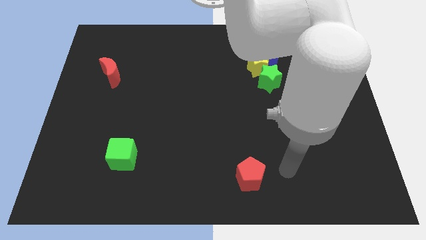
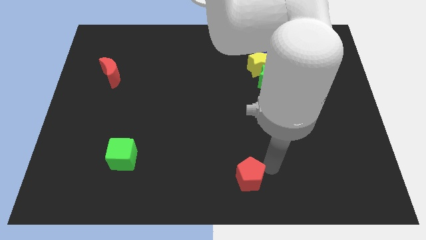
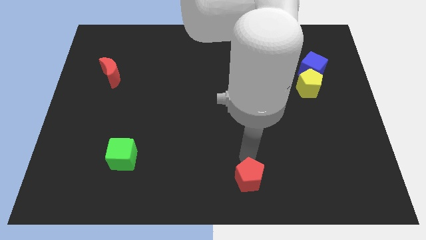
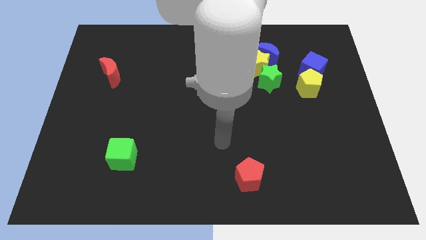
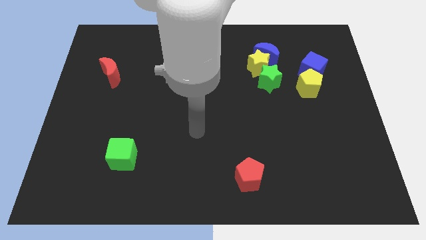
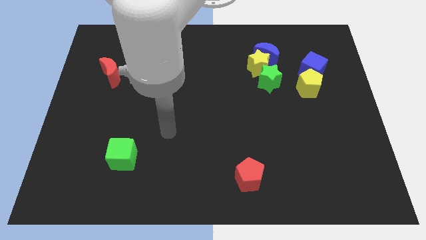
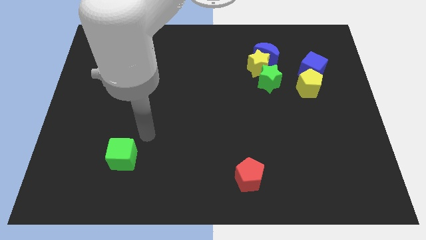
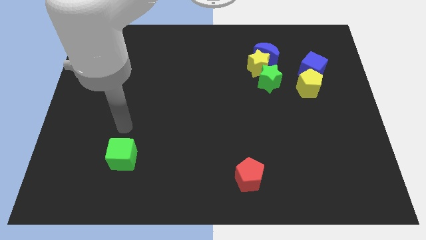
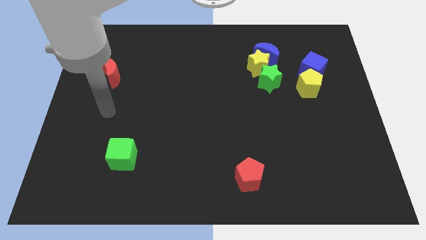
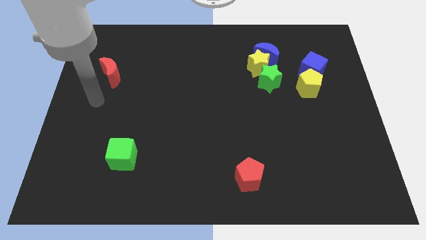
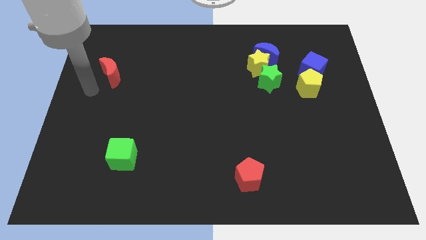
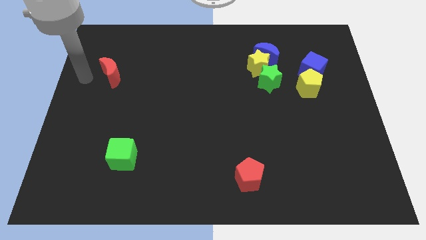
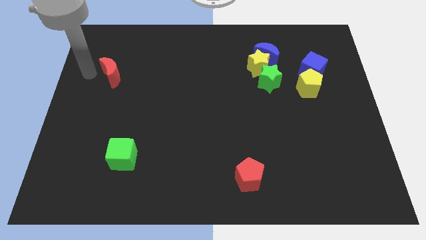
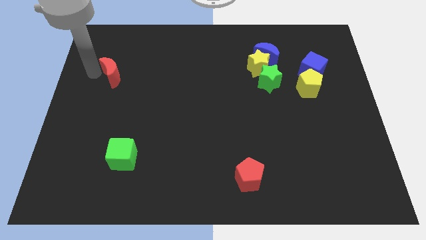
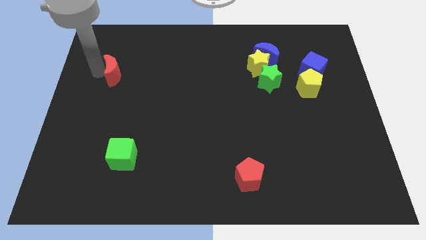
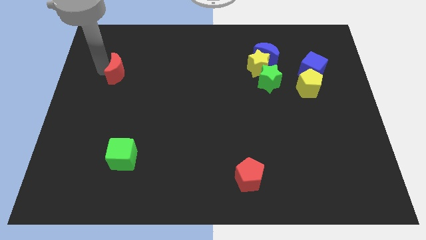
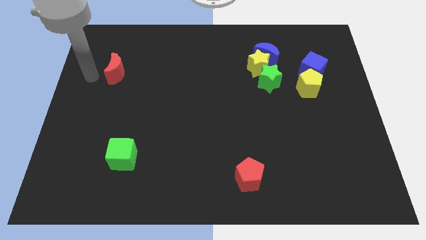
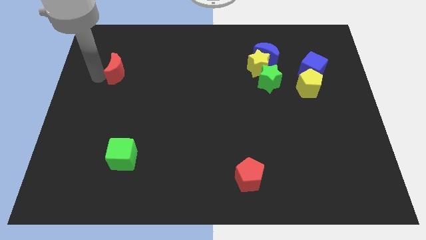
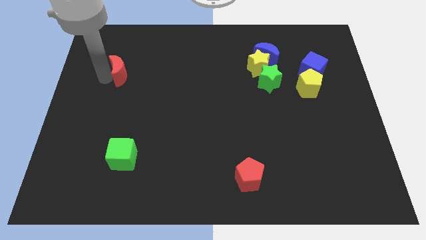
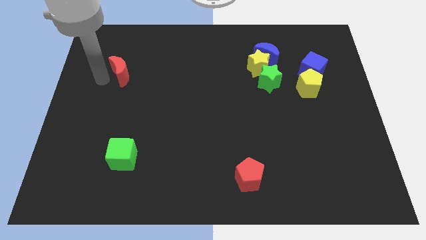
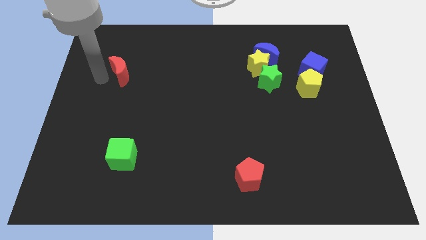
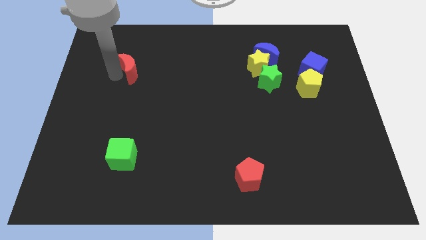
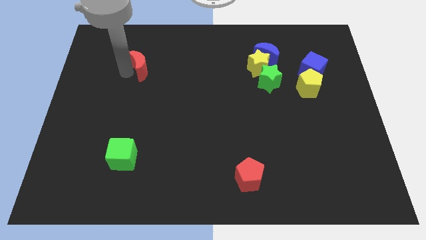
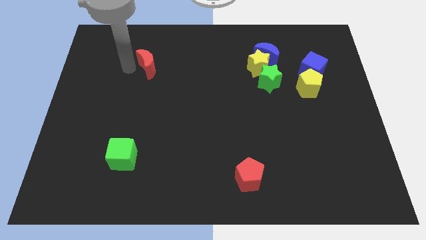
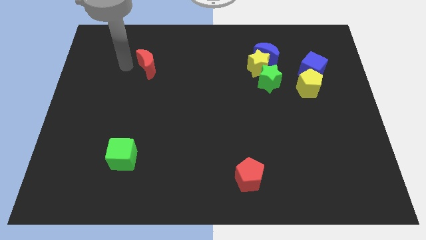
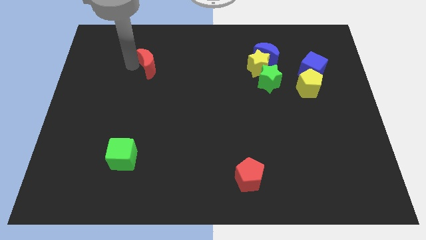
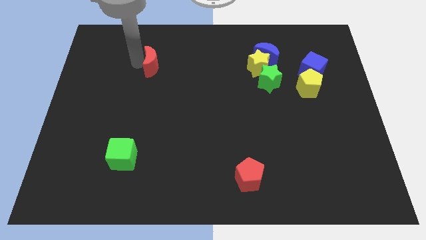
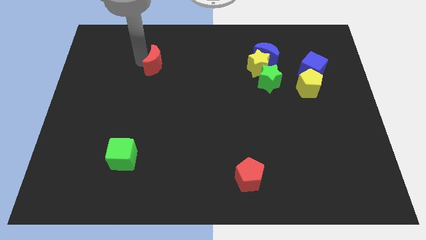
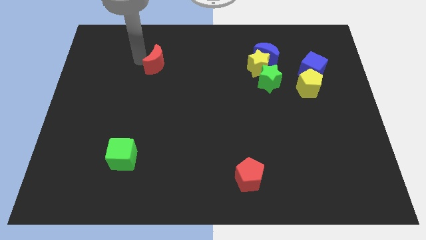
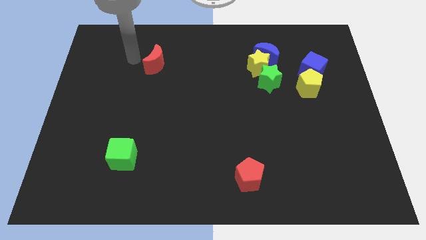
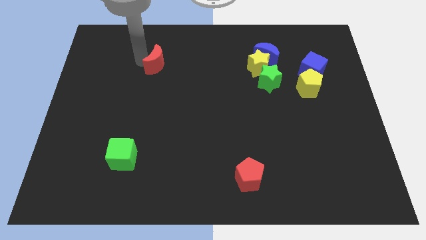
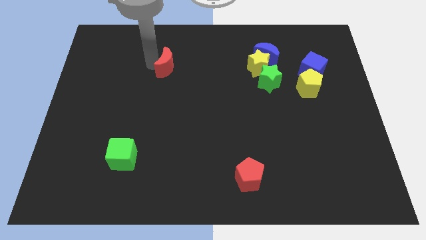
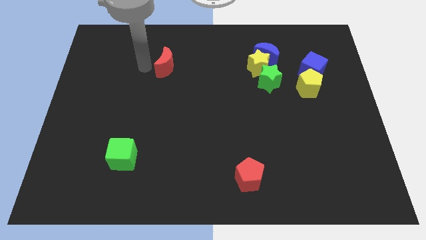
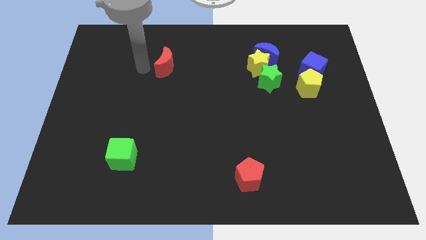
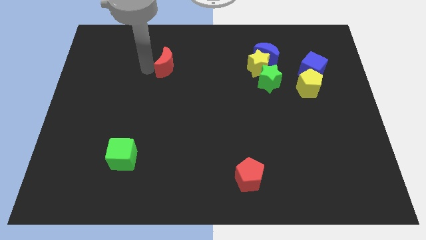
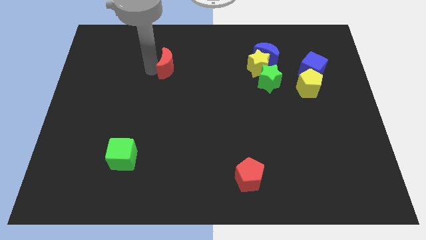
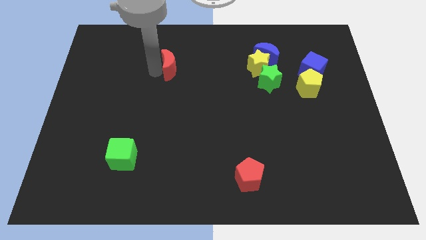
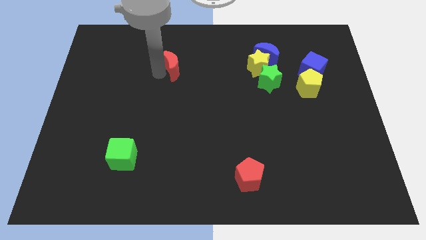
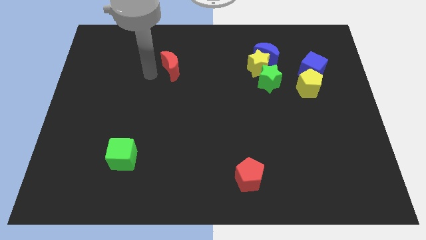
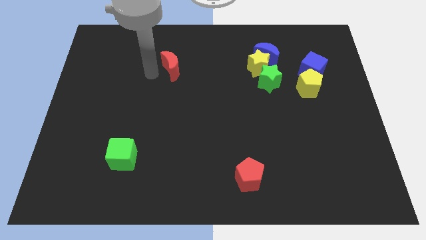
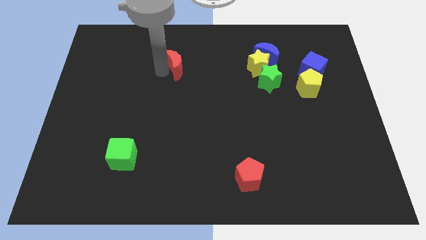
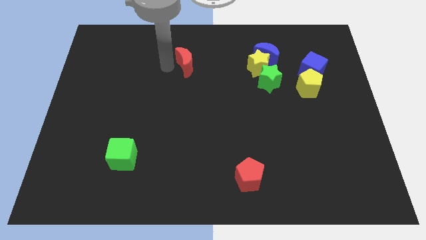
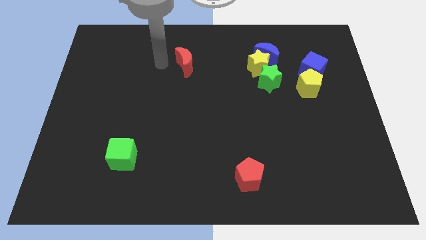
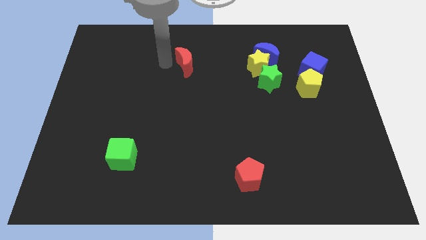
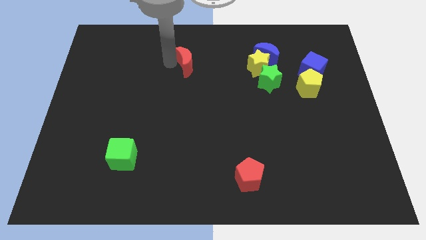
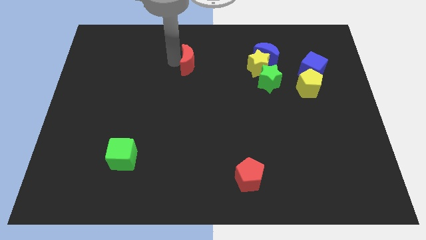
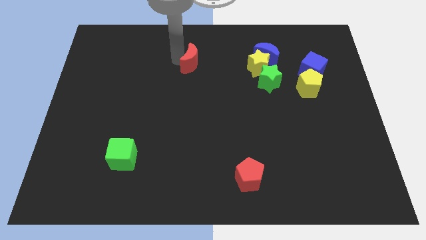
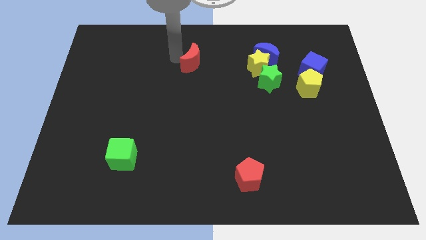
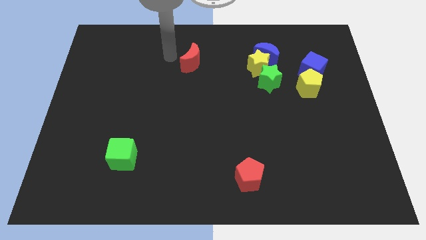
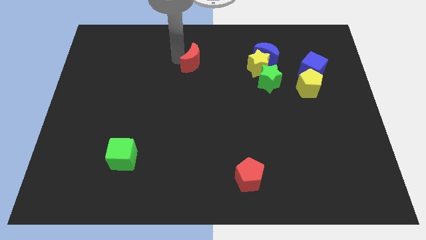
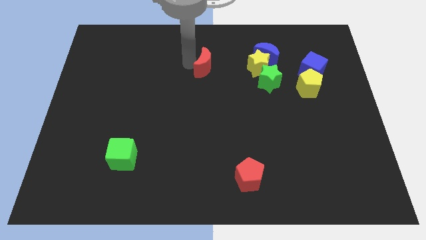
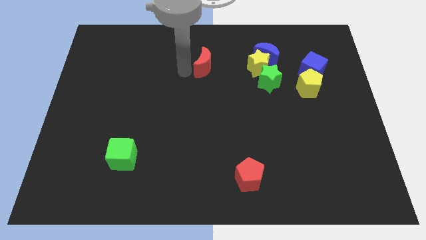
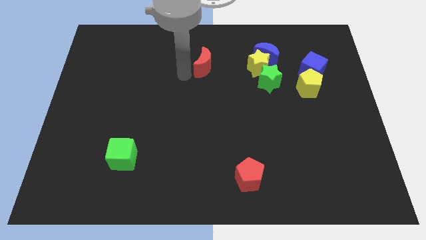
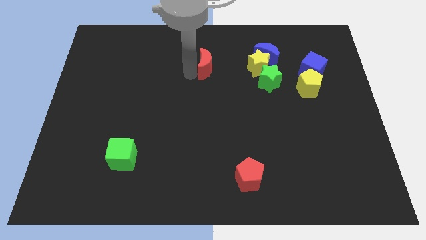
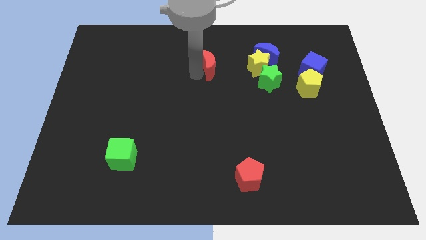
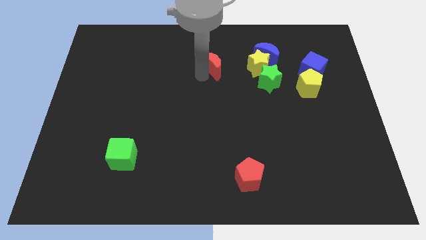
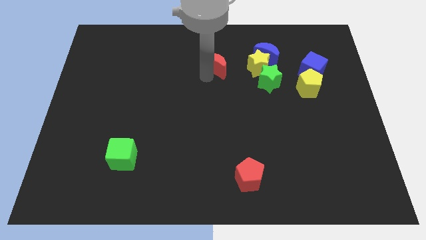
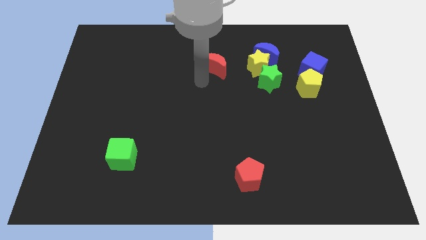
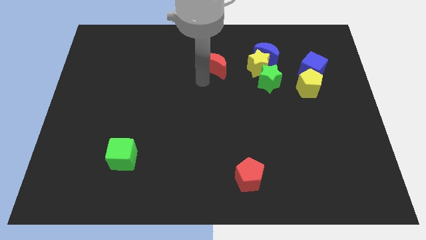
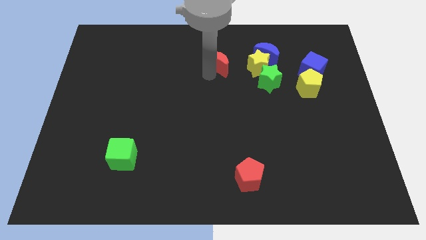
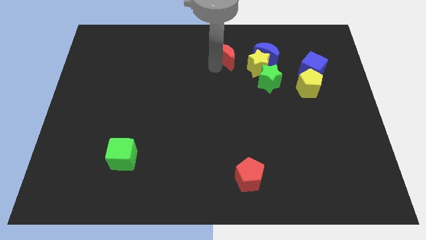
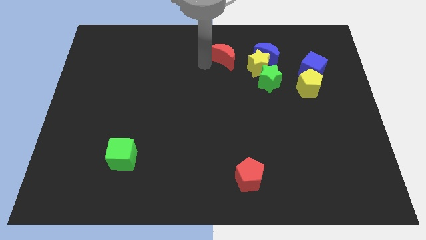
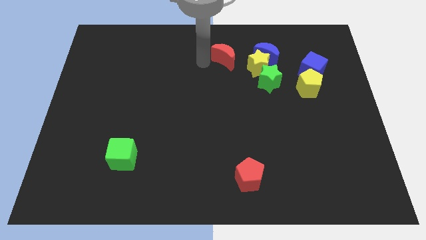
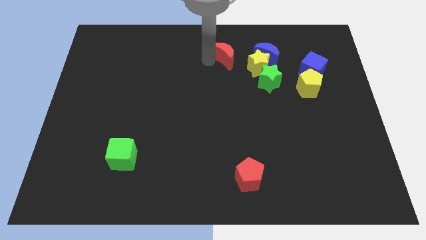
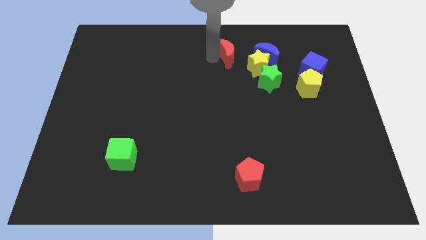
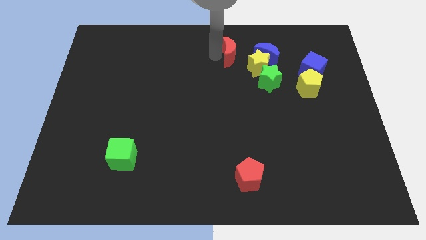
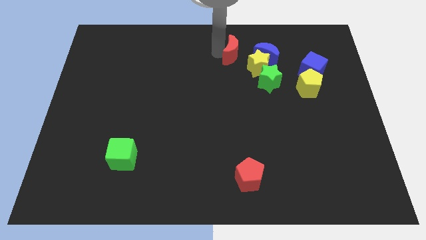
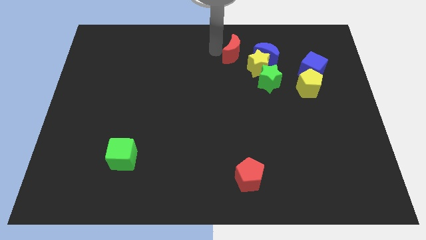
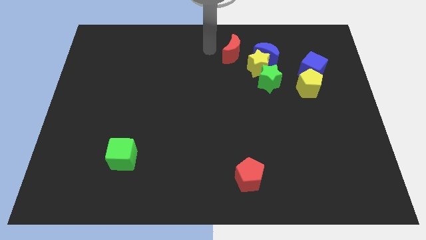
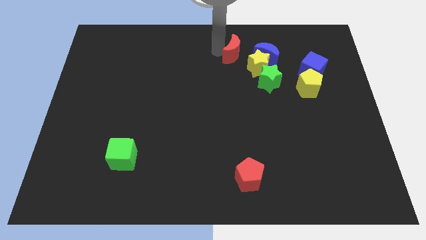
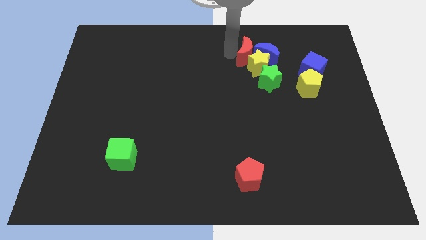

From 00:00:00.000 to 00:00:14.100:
push the red moon close to the blue moon
